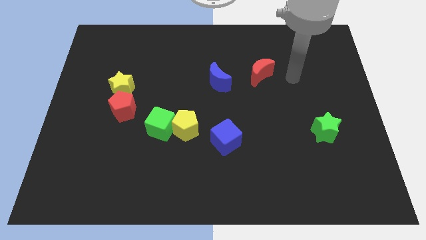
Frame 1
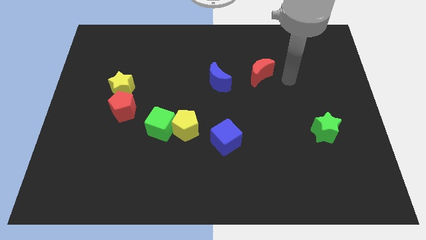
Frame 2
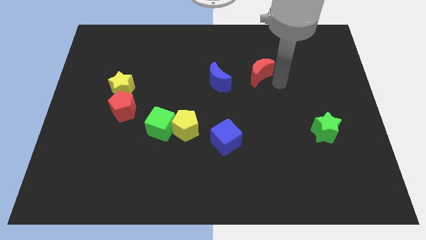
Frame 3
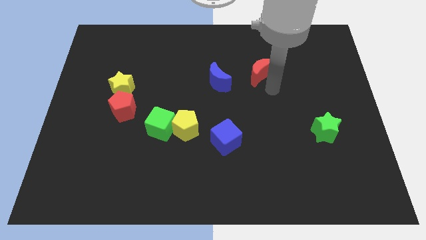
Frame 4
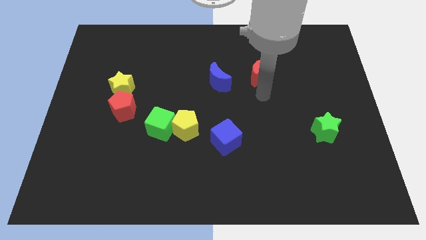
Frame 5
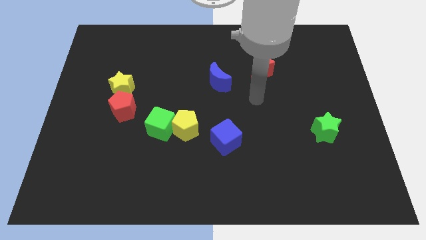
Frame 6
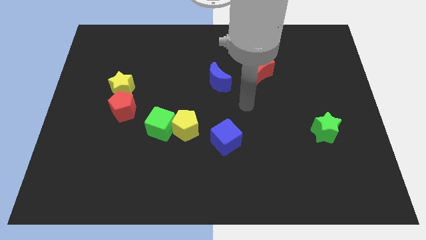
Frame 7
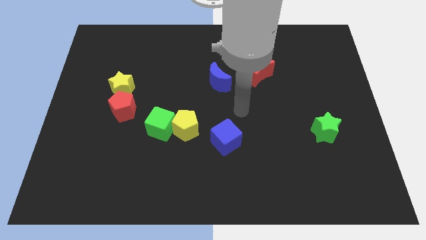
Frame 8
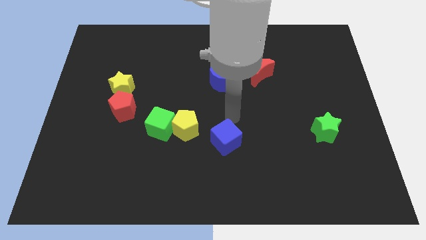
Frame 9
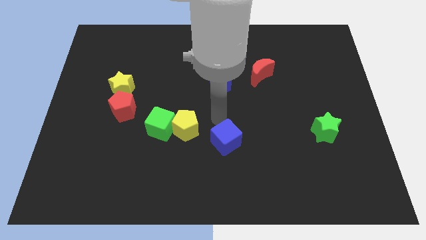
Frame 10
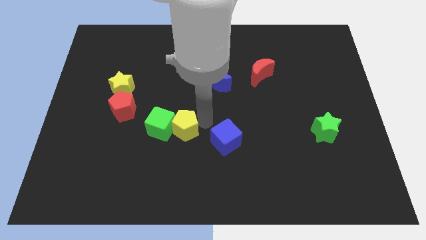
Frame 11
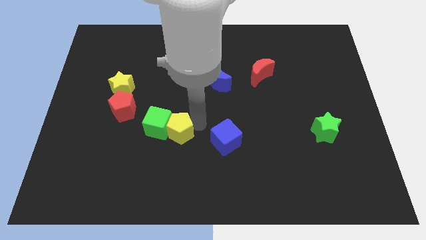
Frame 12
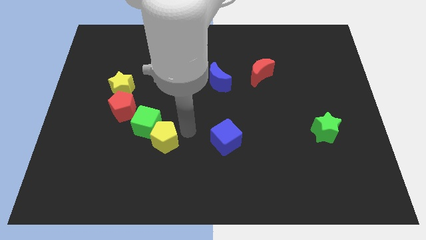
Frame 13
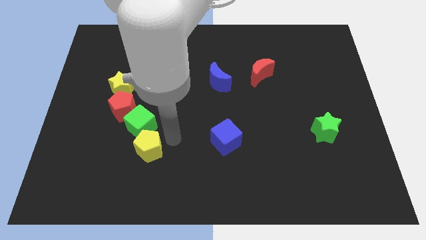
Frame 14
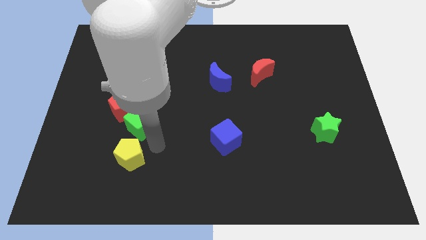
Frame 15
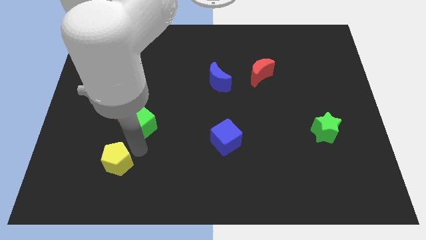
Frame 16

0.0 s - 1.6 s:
separate the green cube from the yellow pentagon

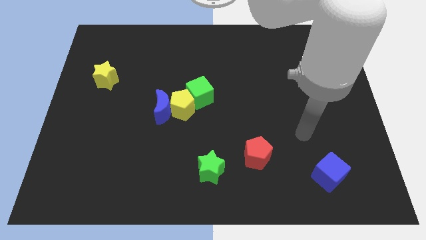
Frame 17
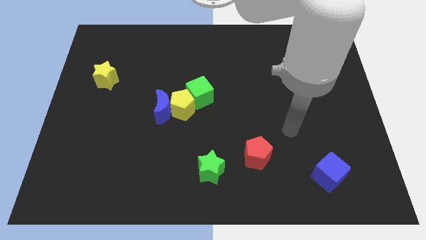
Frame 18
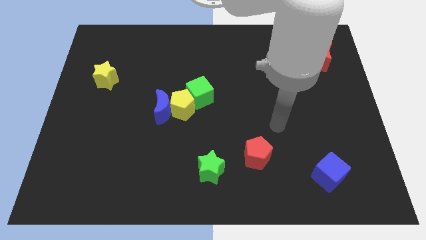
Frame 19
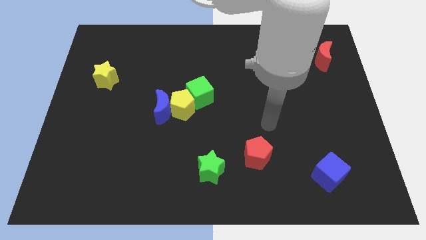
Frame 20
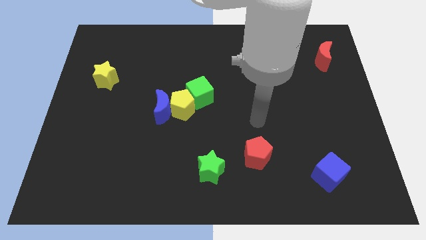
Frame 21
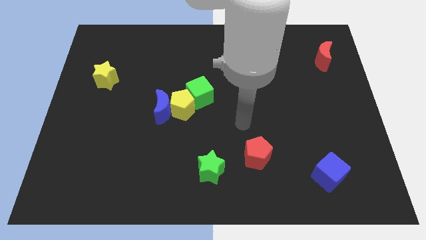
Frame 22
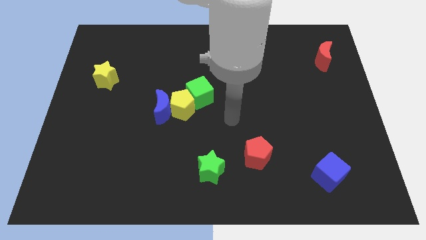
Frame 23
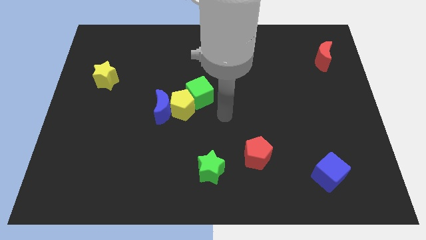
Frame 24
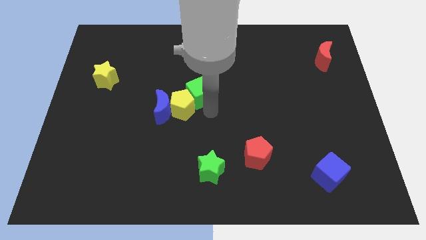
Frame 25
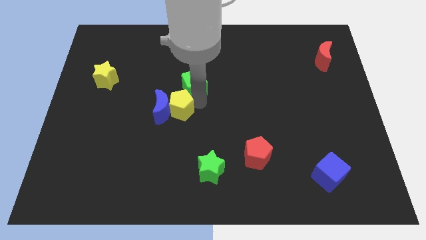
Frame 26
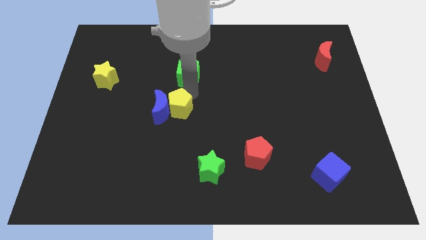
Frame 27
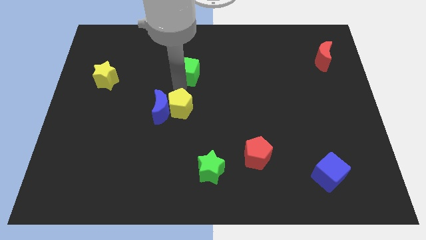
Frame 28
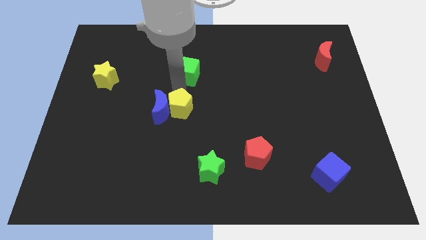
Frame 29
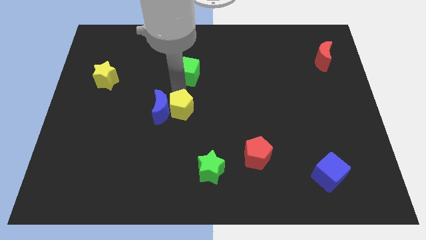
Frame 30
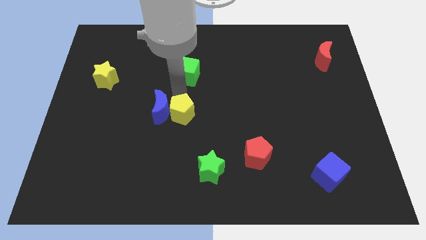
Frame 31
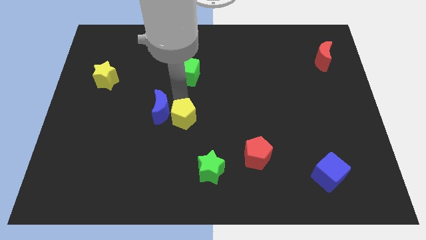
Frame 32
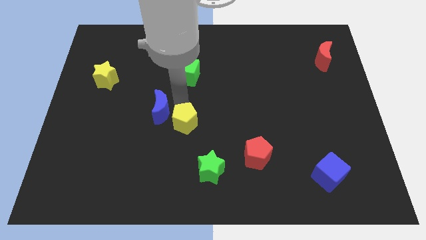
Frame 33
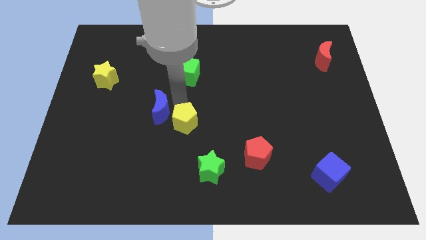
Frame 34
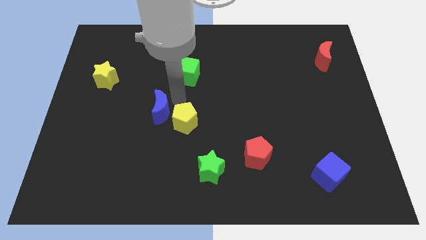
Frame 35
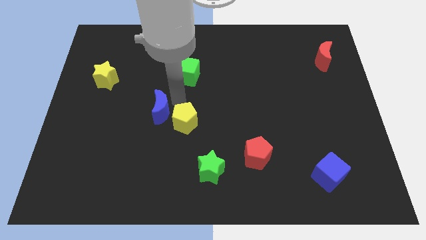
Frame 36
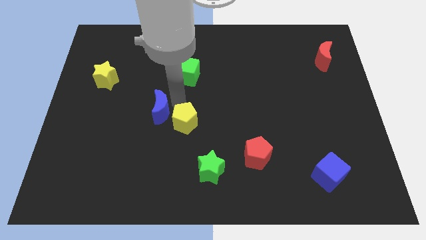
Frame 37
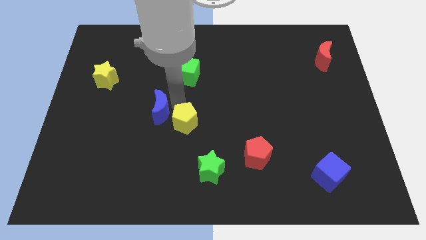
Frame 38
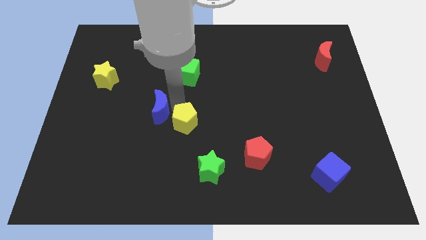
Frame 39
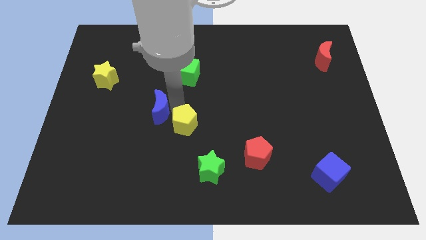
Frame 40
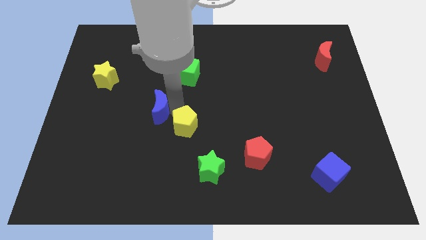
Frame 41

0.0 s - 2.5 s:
separate the yellow pentagon from the blue moon and green cube

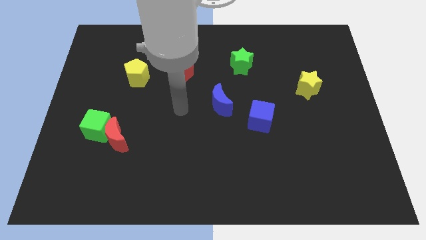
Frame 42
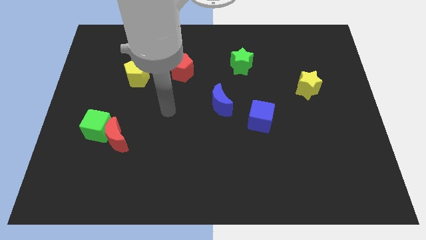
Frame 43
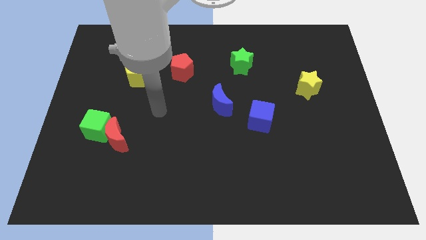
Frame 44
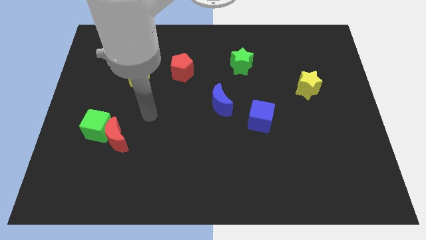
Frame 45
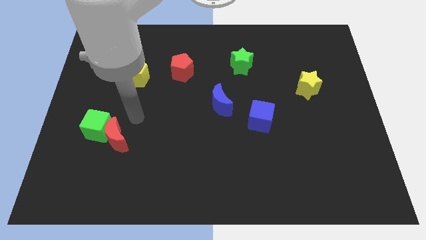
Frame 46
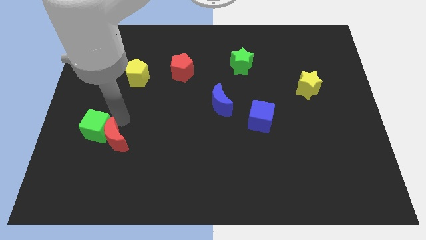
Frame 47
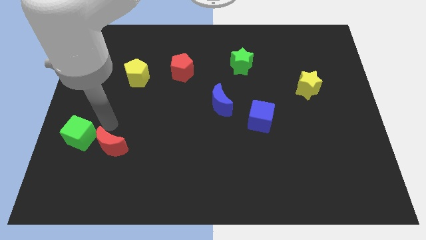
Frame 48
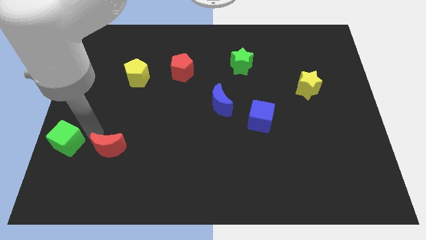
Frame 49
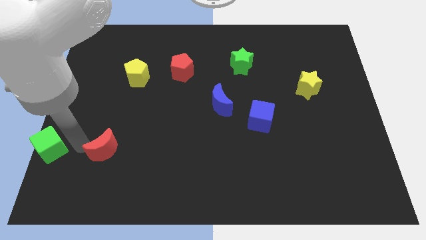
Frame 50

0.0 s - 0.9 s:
separate the red moon from the green cube

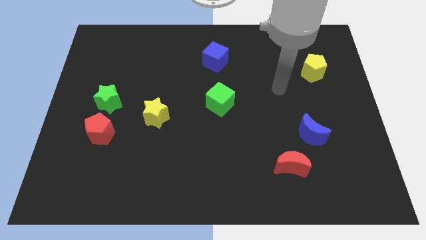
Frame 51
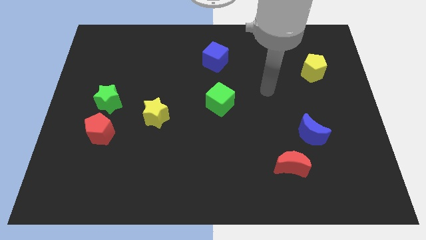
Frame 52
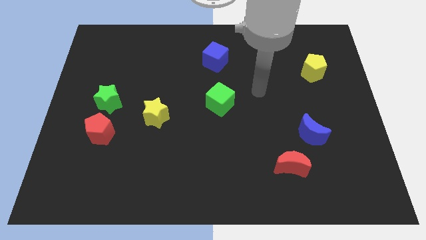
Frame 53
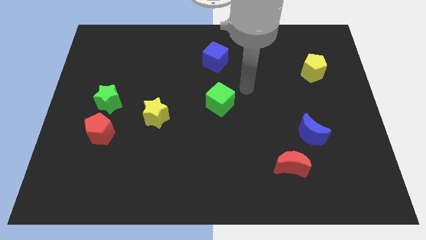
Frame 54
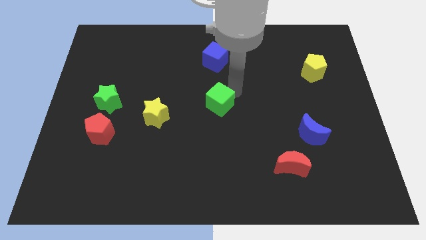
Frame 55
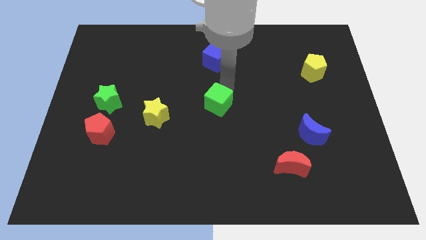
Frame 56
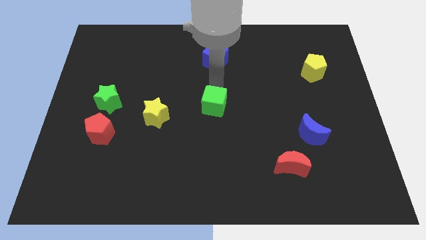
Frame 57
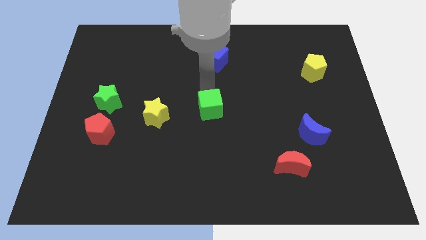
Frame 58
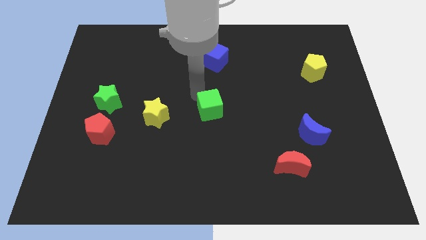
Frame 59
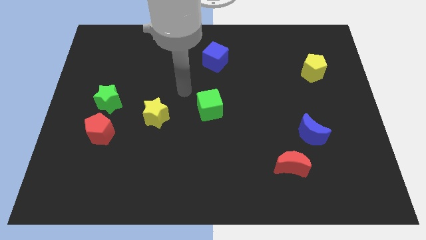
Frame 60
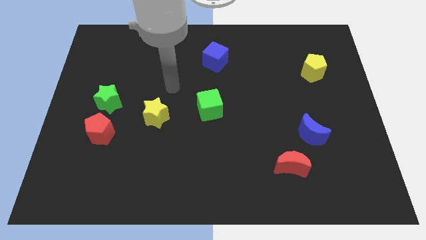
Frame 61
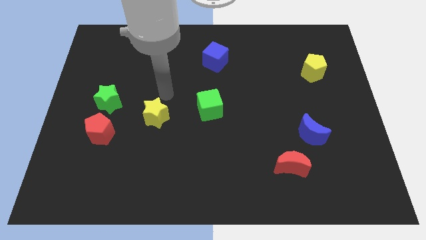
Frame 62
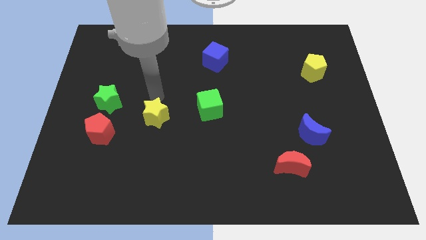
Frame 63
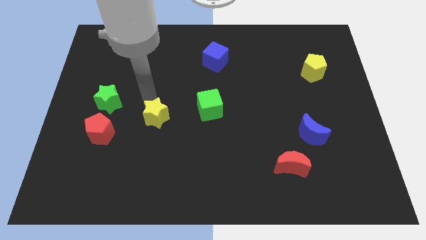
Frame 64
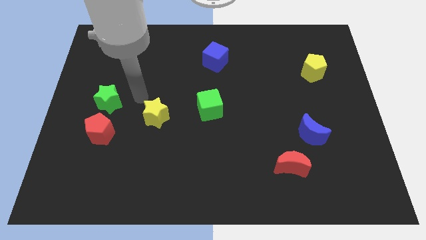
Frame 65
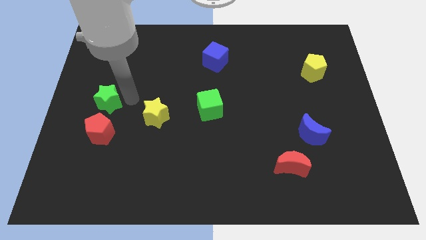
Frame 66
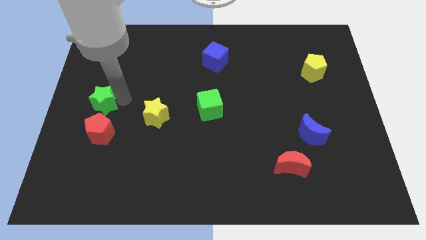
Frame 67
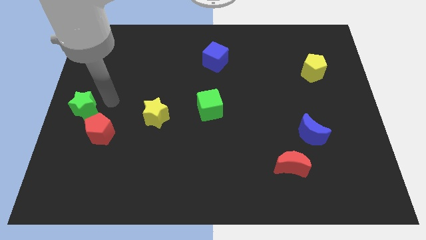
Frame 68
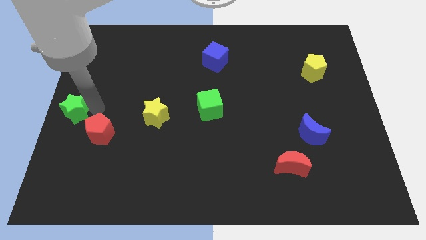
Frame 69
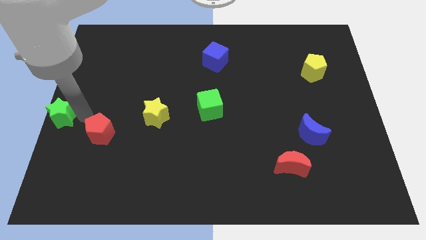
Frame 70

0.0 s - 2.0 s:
pull the red pentagon apart from the green star

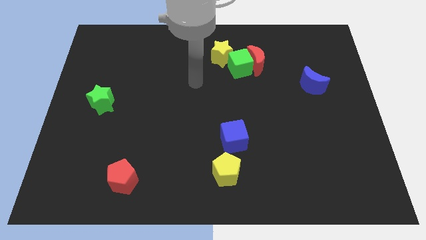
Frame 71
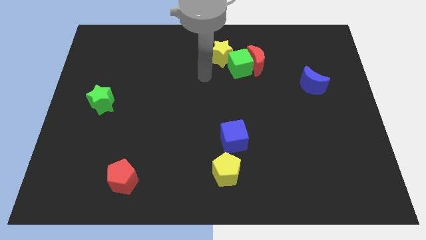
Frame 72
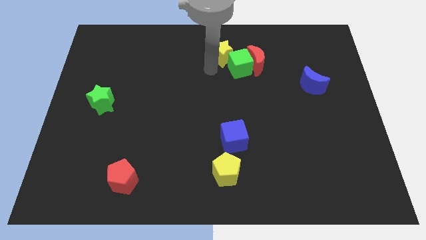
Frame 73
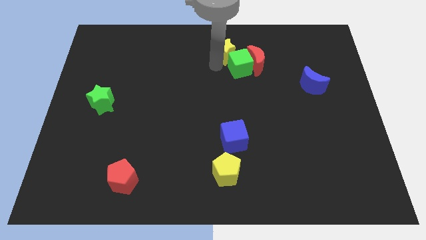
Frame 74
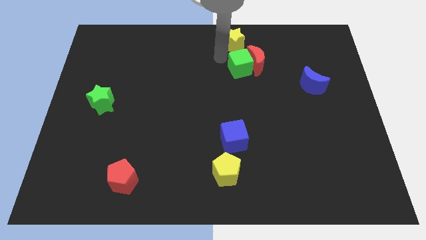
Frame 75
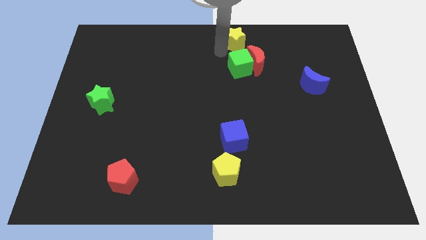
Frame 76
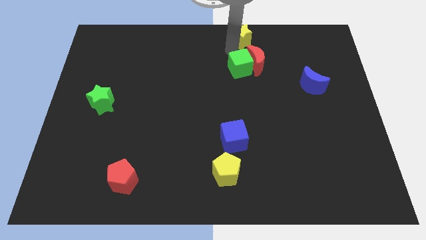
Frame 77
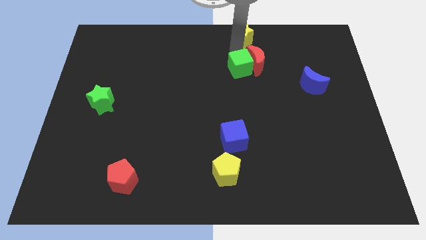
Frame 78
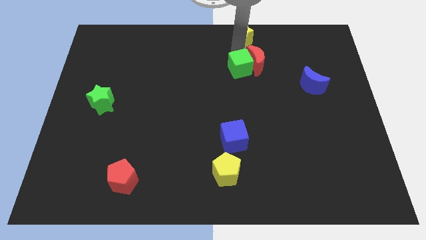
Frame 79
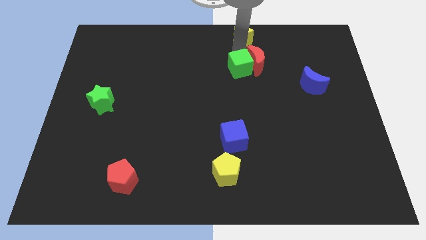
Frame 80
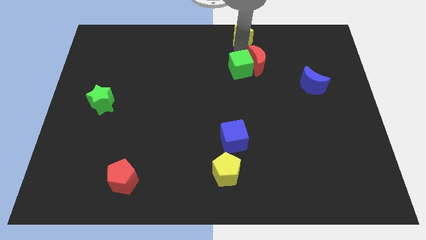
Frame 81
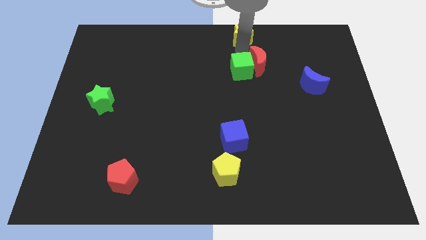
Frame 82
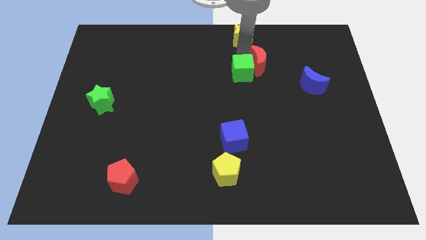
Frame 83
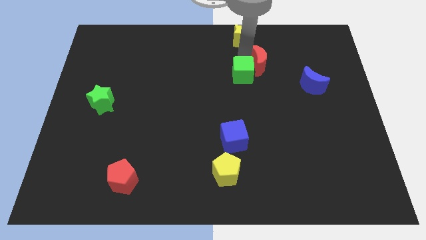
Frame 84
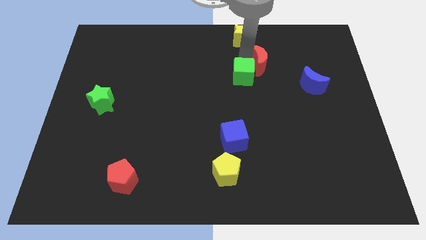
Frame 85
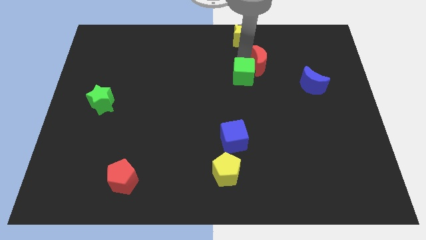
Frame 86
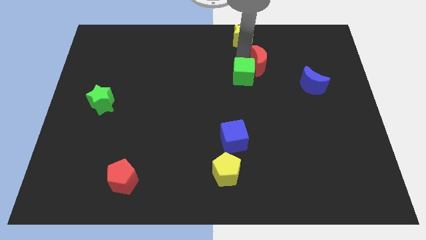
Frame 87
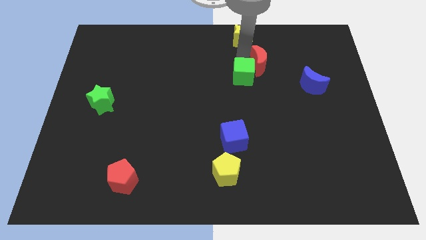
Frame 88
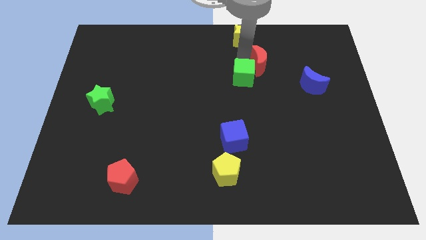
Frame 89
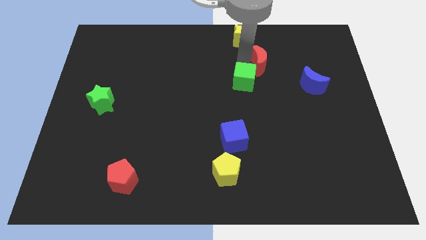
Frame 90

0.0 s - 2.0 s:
separate the green cube from the red moon and yellow star

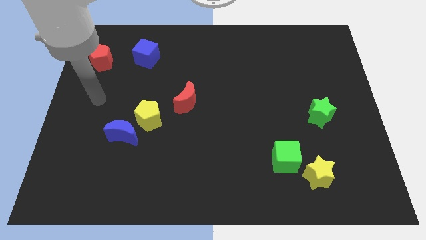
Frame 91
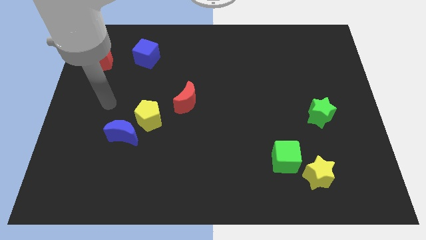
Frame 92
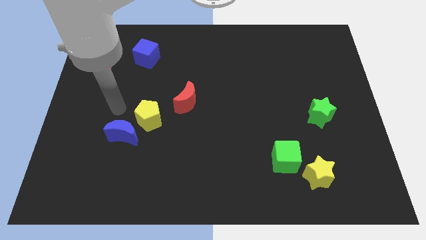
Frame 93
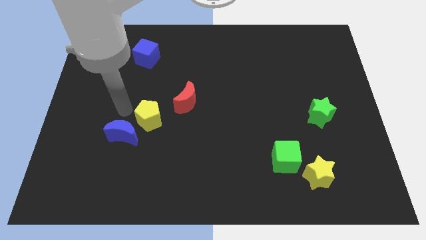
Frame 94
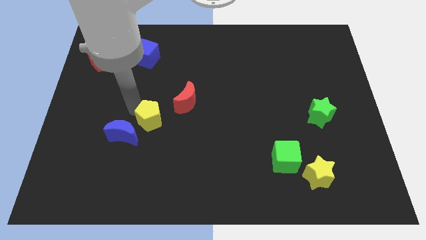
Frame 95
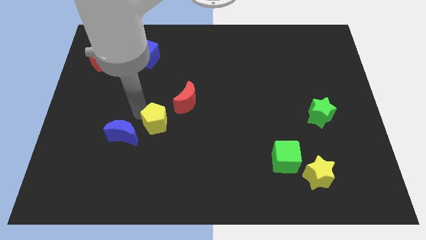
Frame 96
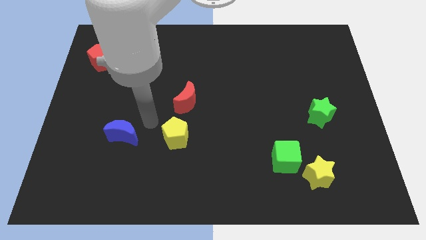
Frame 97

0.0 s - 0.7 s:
separate the blue moon from the yellow pentagon
